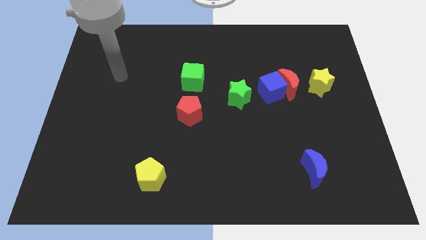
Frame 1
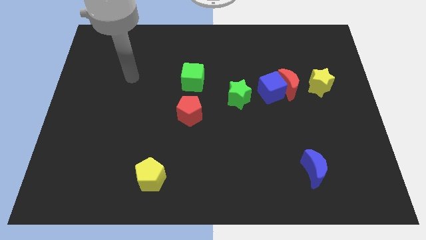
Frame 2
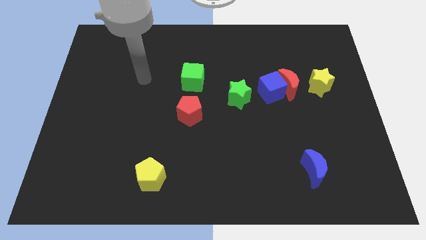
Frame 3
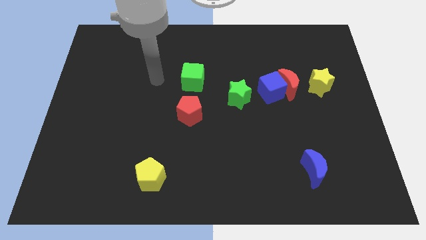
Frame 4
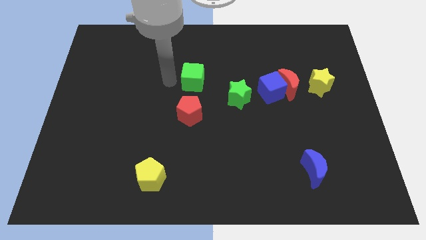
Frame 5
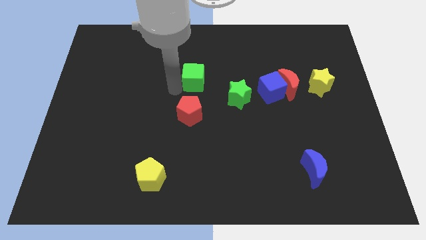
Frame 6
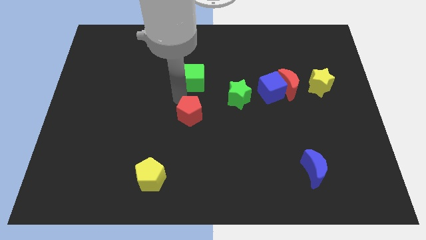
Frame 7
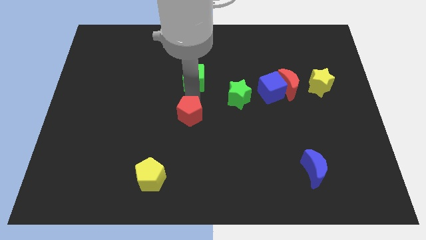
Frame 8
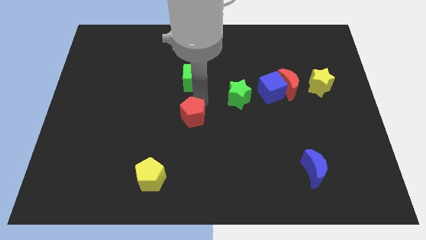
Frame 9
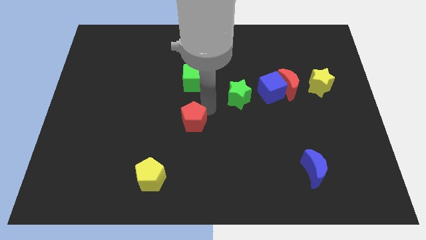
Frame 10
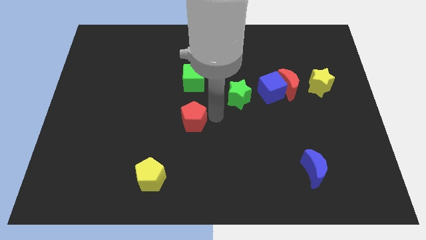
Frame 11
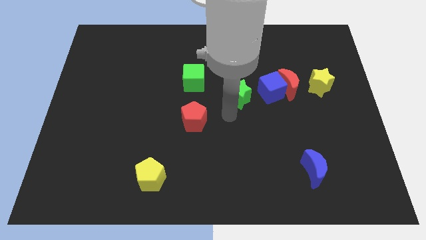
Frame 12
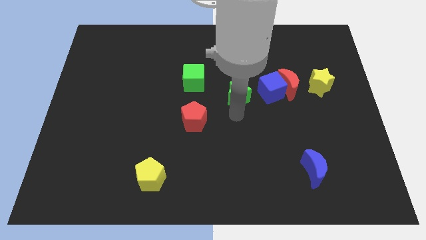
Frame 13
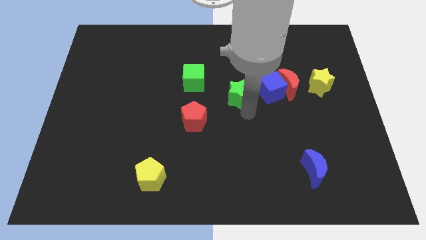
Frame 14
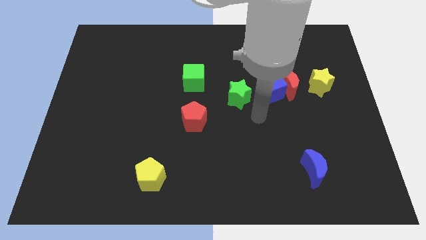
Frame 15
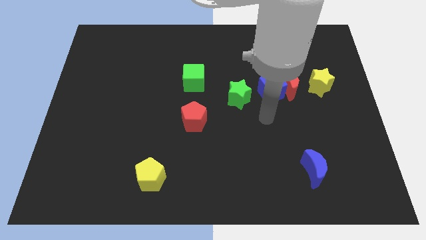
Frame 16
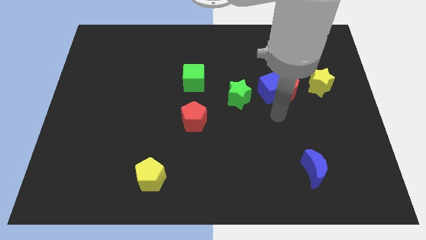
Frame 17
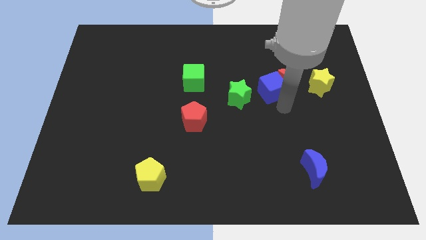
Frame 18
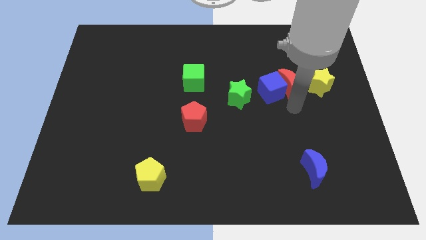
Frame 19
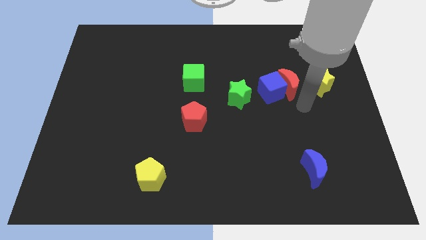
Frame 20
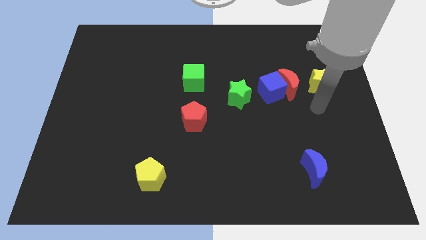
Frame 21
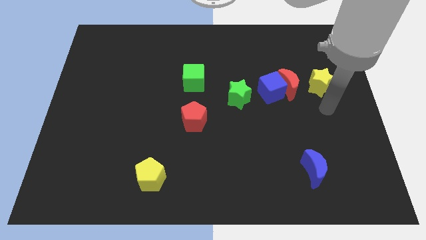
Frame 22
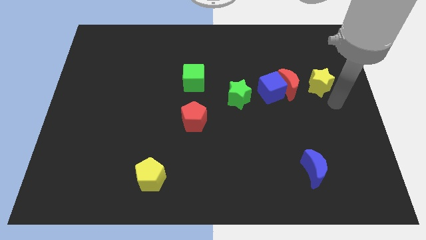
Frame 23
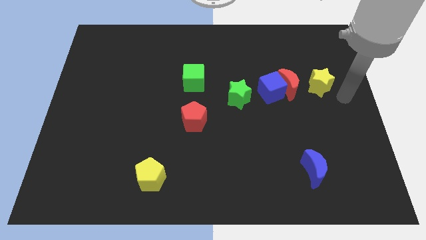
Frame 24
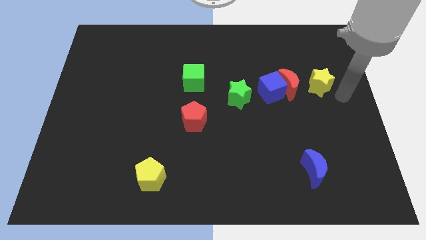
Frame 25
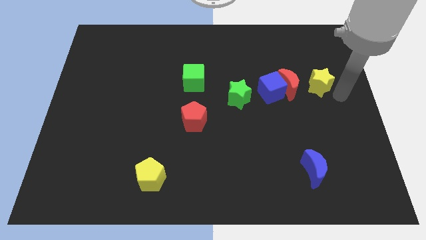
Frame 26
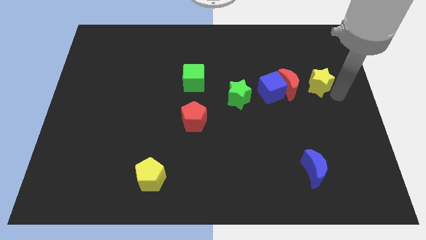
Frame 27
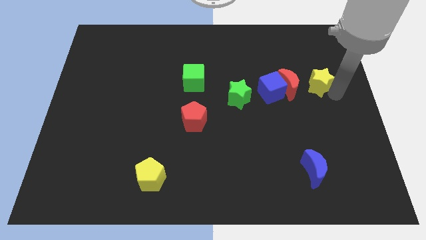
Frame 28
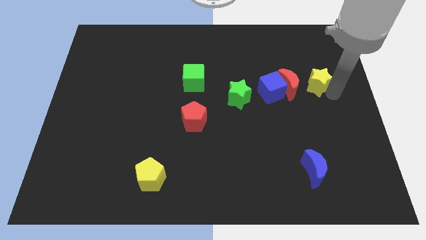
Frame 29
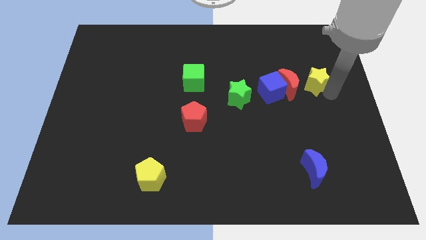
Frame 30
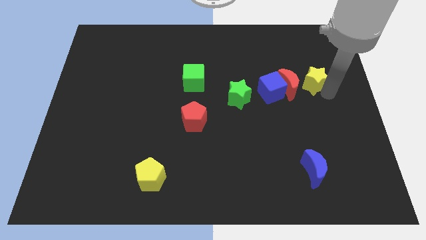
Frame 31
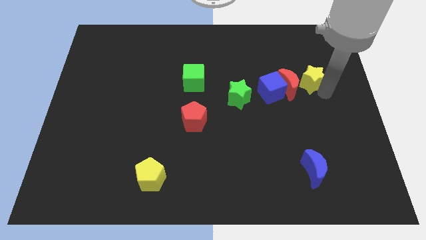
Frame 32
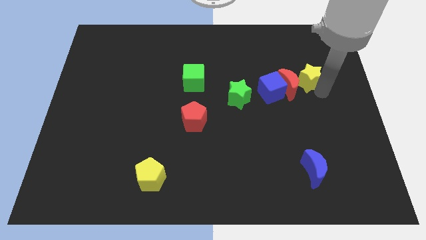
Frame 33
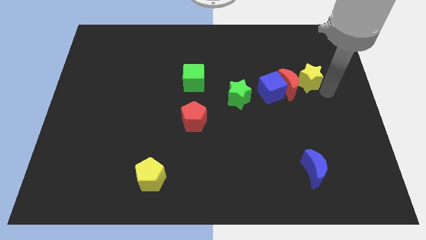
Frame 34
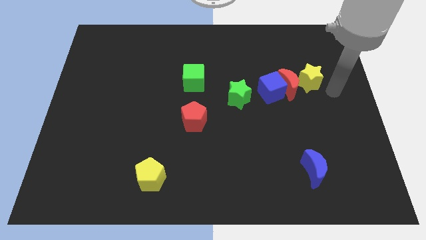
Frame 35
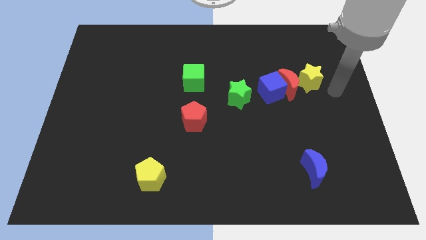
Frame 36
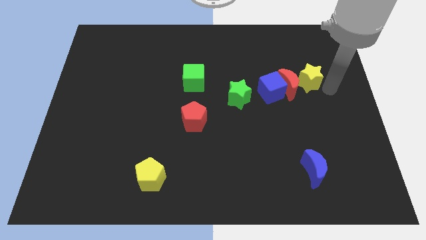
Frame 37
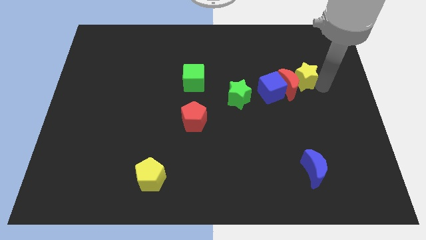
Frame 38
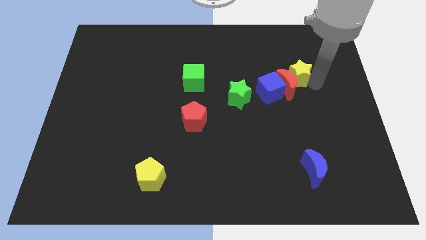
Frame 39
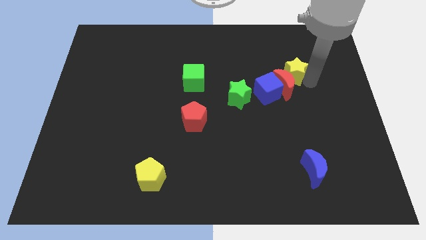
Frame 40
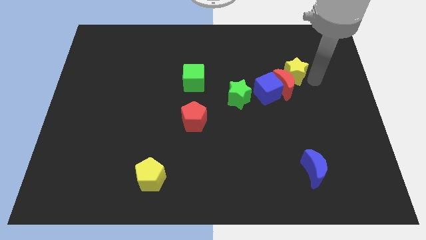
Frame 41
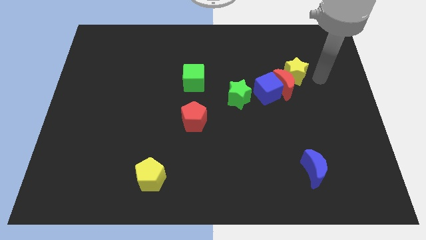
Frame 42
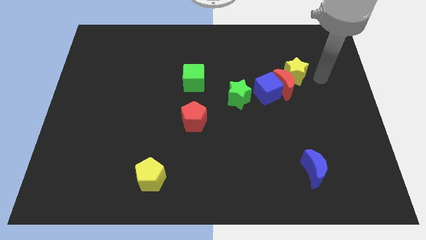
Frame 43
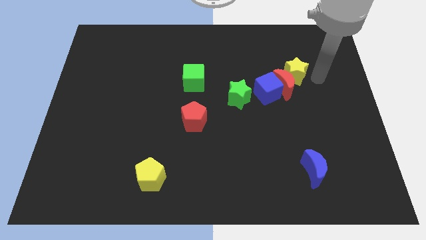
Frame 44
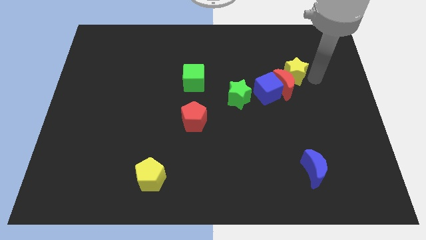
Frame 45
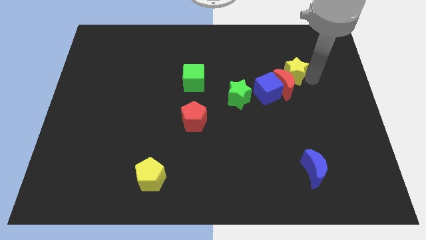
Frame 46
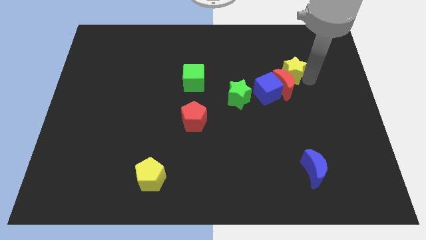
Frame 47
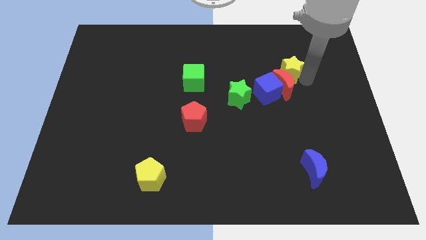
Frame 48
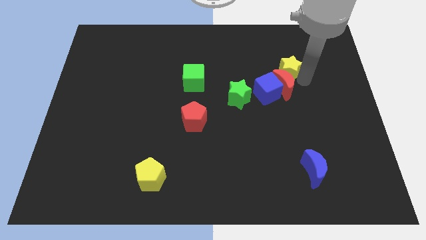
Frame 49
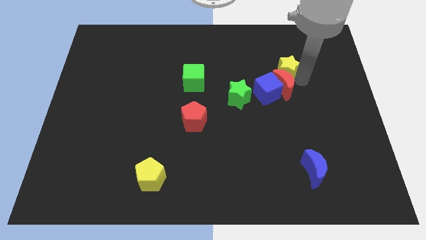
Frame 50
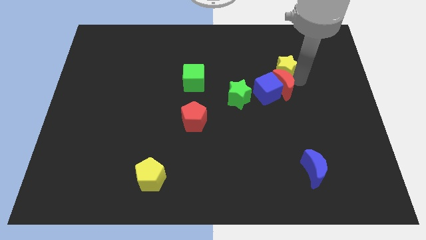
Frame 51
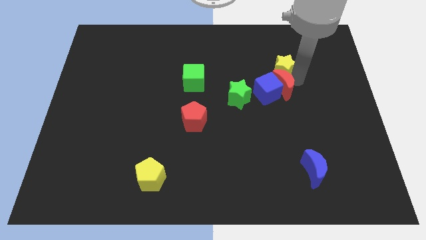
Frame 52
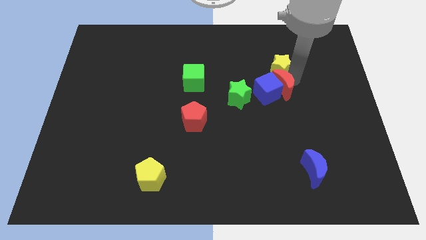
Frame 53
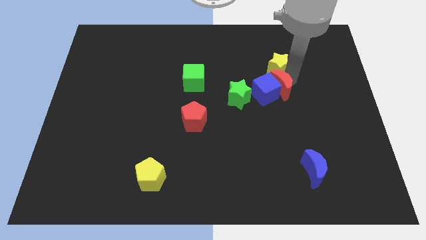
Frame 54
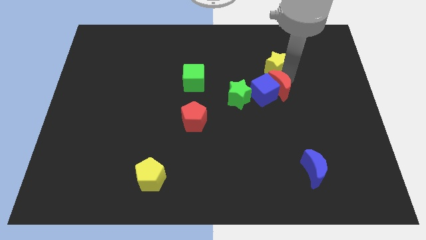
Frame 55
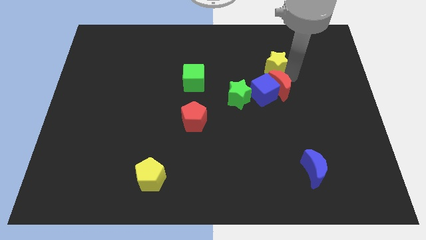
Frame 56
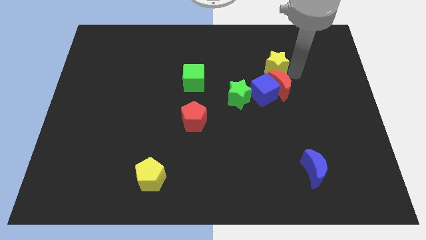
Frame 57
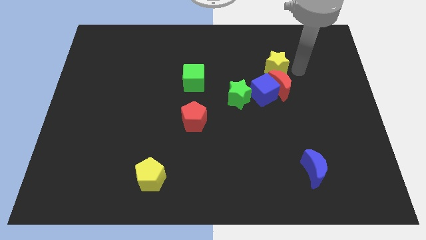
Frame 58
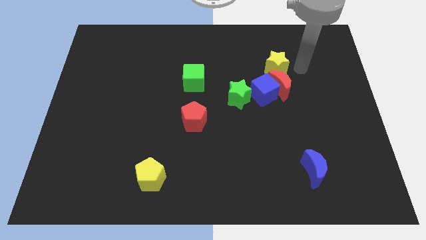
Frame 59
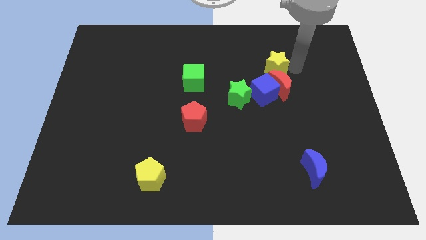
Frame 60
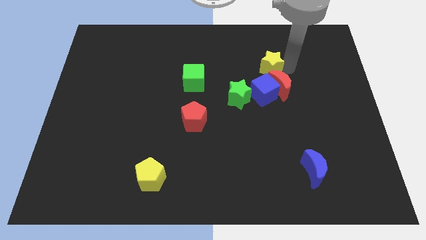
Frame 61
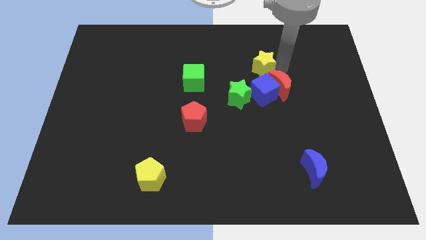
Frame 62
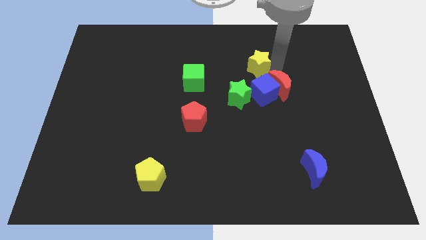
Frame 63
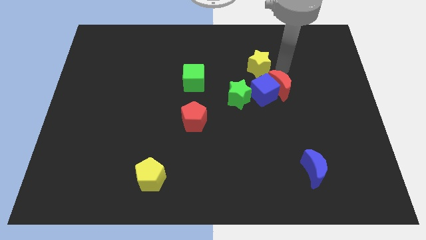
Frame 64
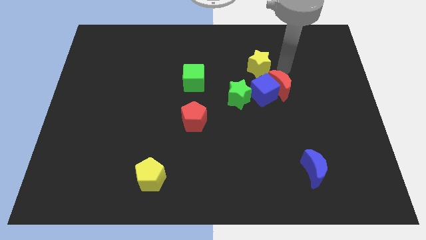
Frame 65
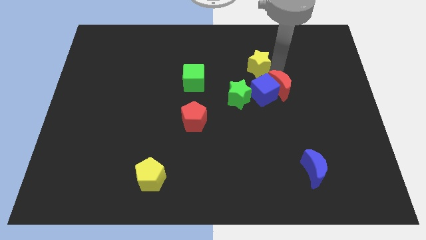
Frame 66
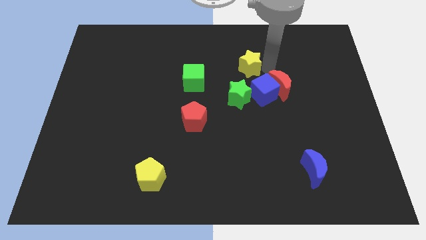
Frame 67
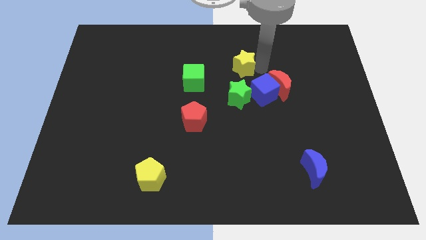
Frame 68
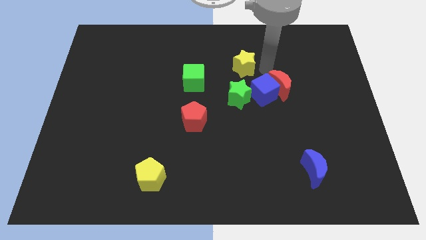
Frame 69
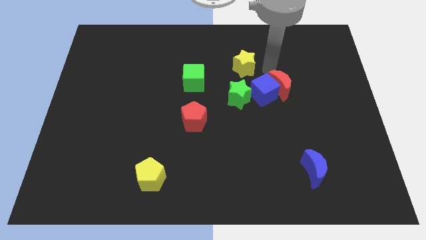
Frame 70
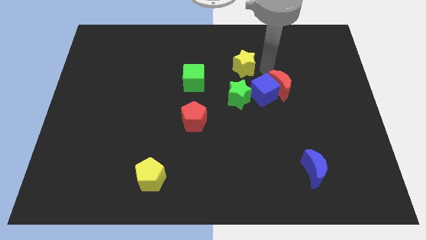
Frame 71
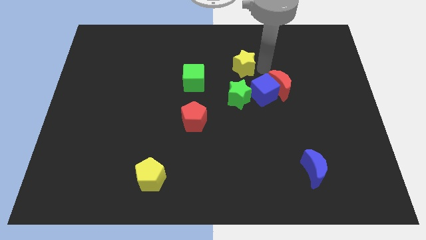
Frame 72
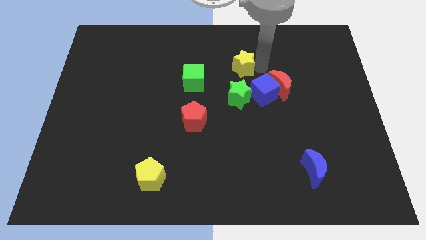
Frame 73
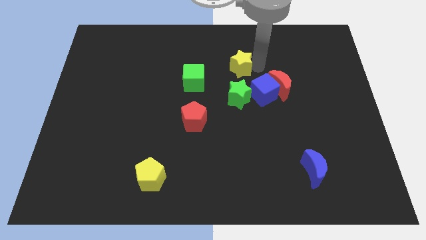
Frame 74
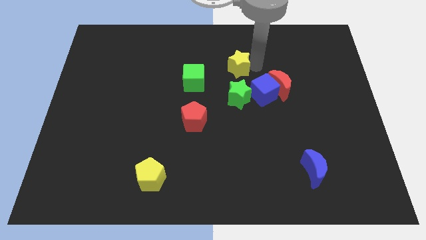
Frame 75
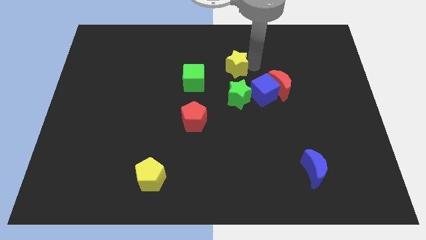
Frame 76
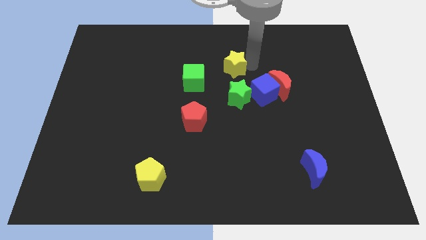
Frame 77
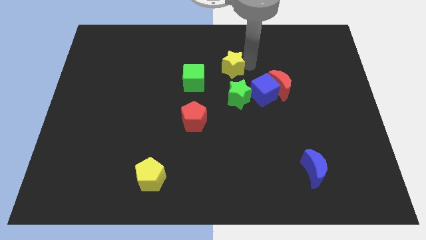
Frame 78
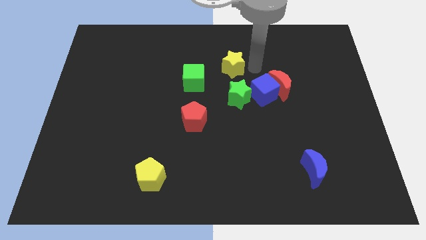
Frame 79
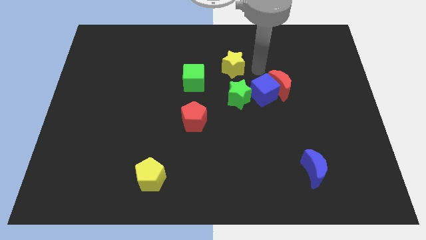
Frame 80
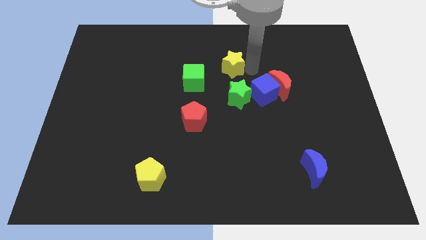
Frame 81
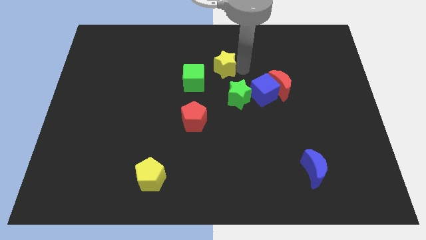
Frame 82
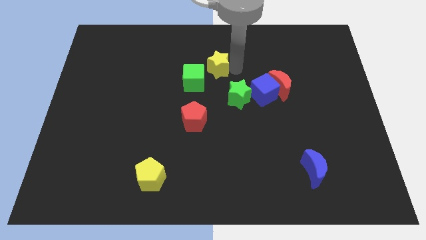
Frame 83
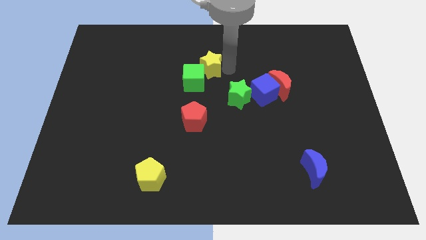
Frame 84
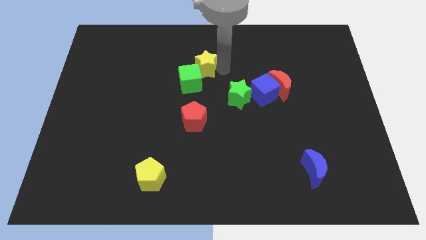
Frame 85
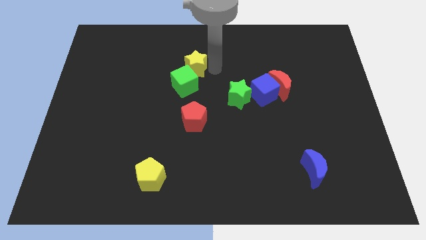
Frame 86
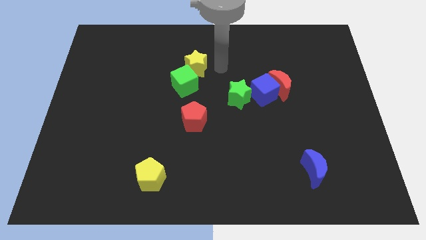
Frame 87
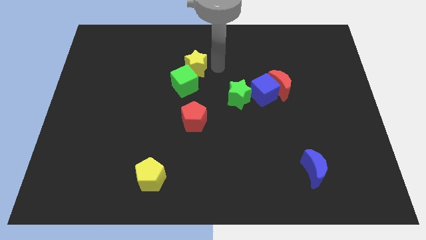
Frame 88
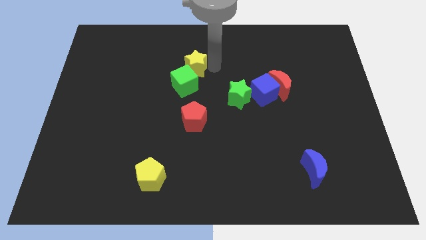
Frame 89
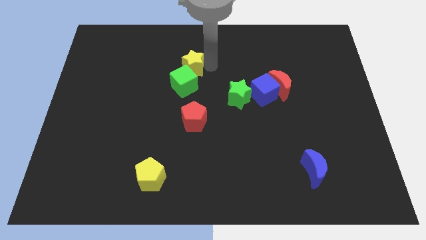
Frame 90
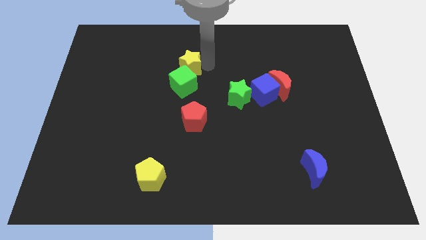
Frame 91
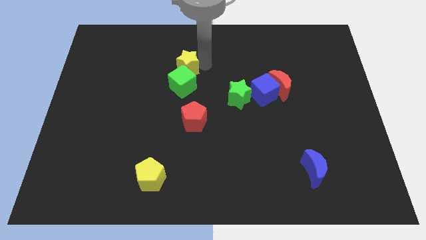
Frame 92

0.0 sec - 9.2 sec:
slide the yellow star to the top left of the green cube
